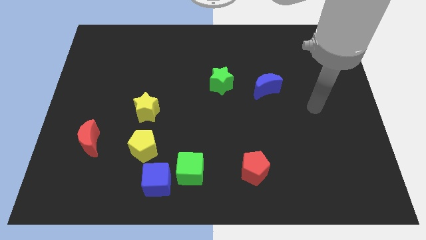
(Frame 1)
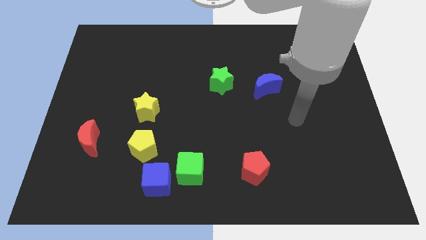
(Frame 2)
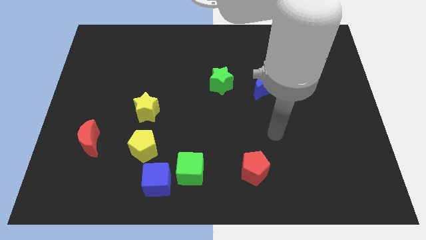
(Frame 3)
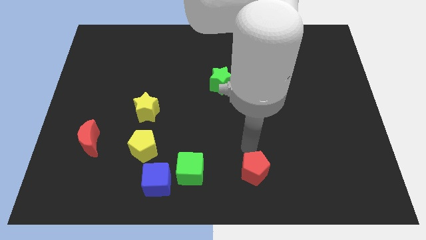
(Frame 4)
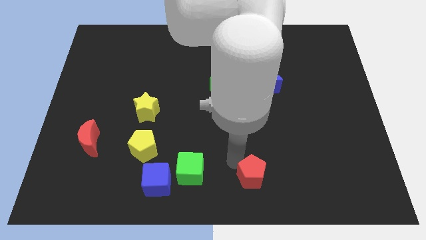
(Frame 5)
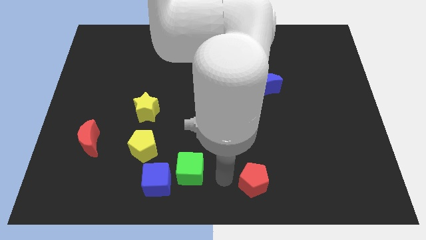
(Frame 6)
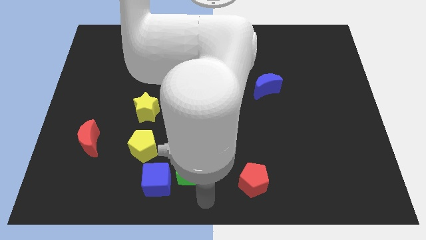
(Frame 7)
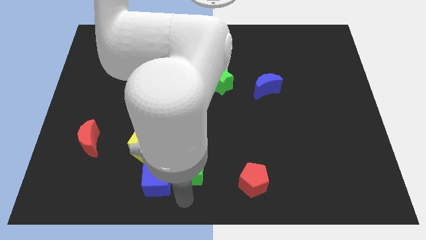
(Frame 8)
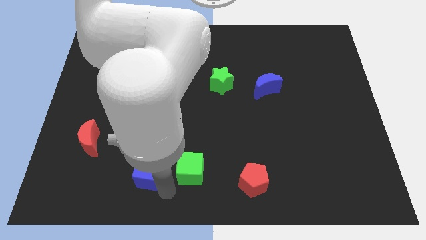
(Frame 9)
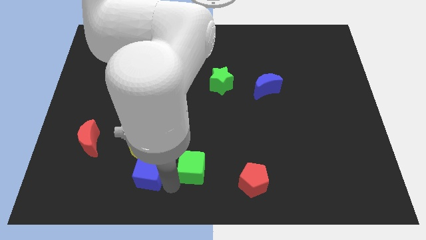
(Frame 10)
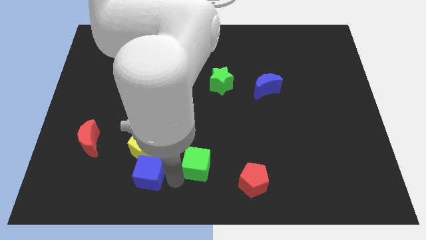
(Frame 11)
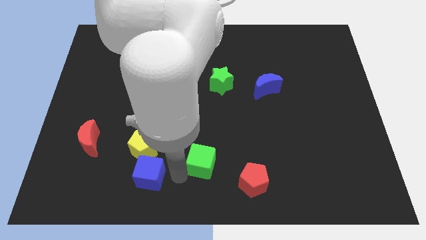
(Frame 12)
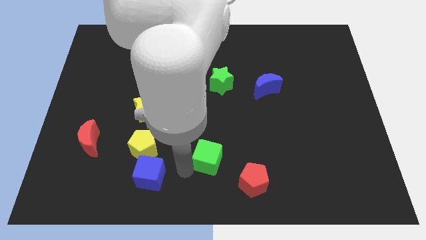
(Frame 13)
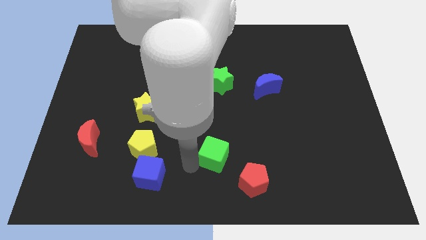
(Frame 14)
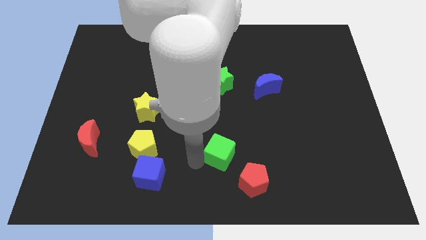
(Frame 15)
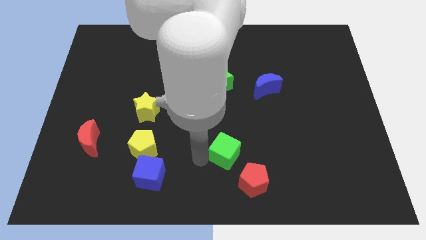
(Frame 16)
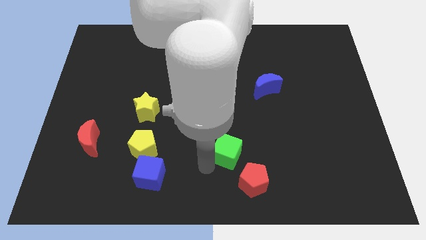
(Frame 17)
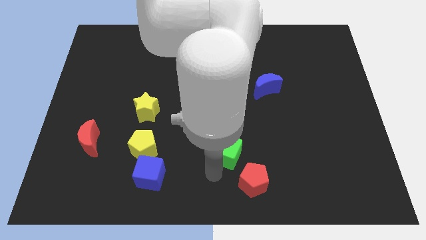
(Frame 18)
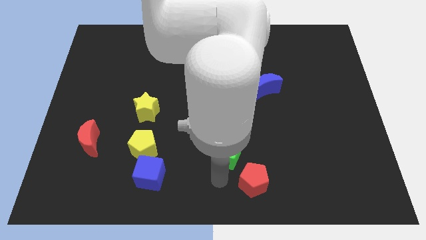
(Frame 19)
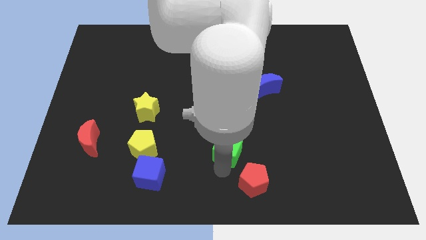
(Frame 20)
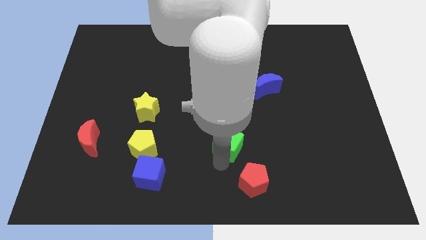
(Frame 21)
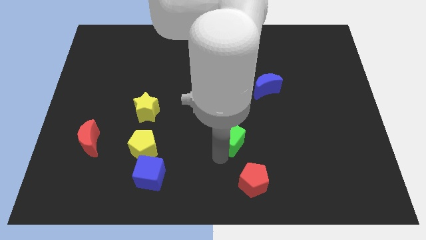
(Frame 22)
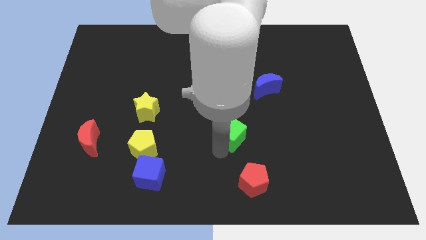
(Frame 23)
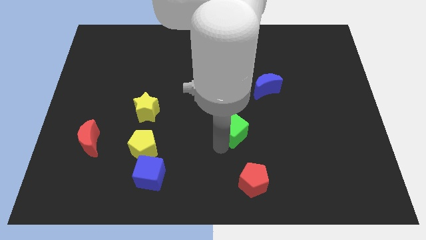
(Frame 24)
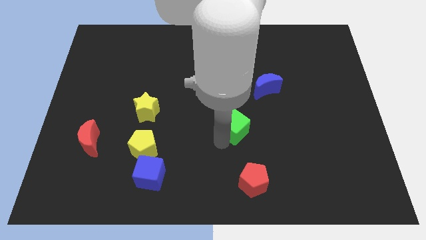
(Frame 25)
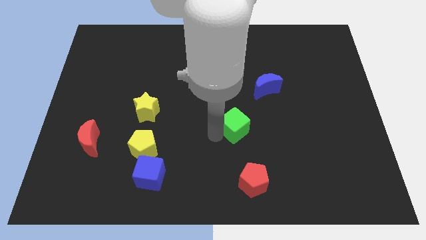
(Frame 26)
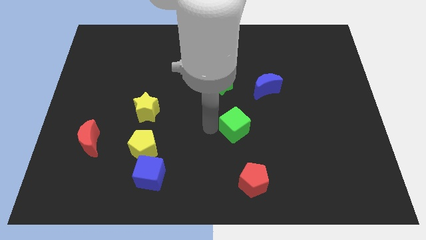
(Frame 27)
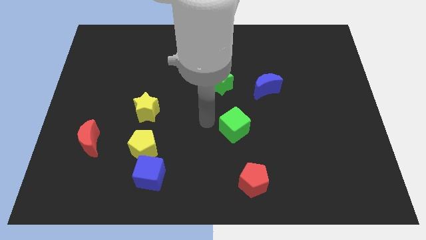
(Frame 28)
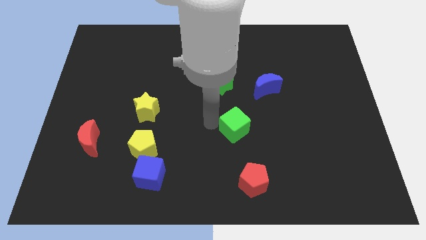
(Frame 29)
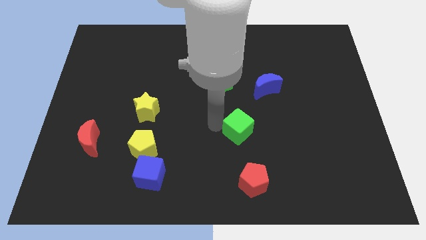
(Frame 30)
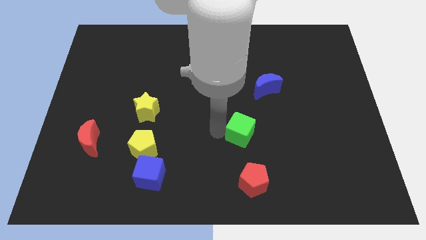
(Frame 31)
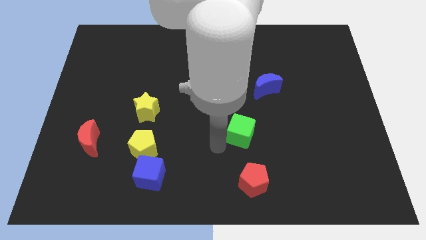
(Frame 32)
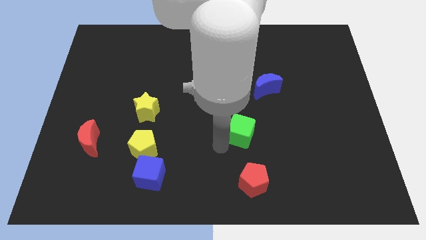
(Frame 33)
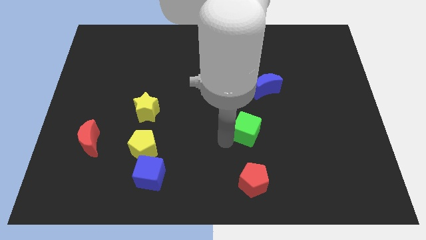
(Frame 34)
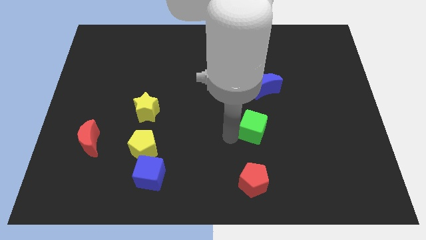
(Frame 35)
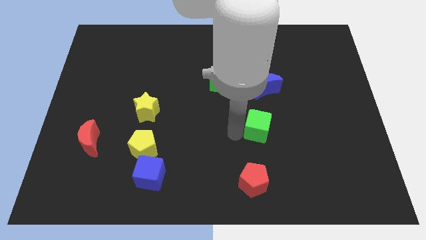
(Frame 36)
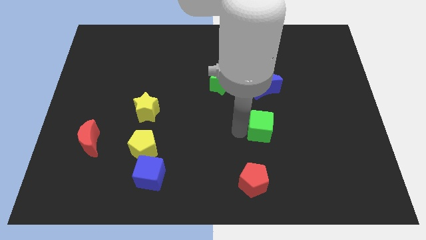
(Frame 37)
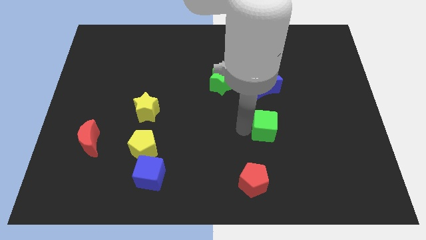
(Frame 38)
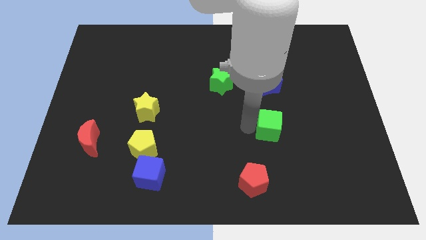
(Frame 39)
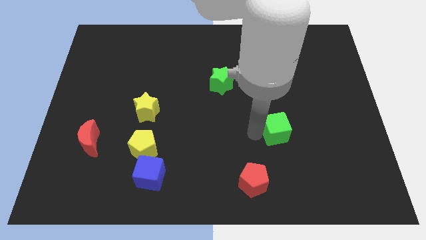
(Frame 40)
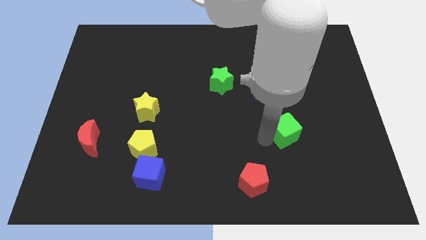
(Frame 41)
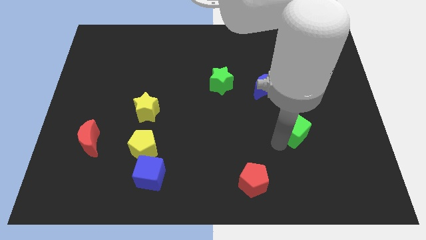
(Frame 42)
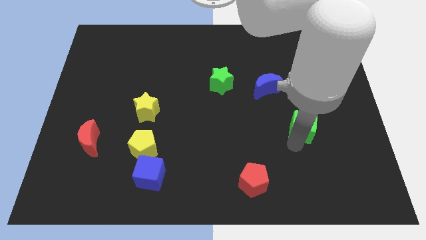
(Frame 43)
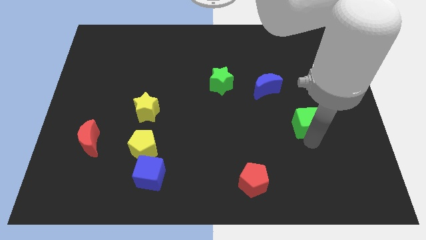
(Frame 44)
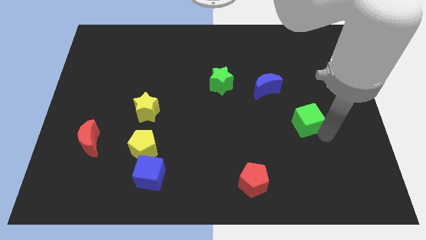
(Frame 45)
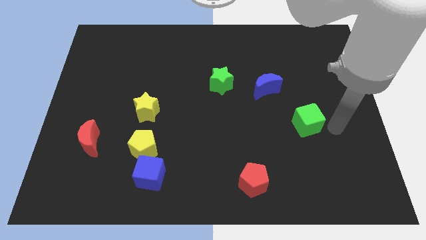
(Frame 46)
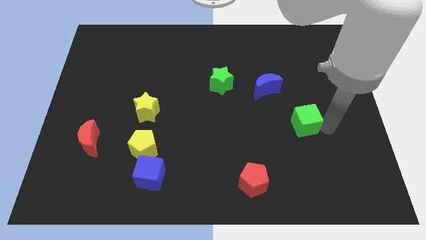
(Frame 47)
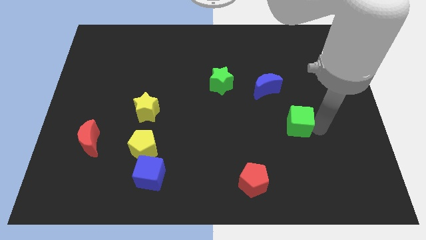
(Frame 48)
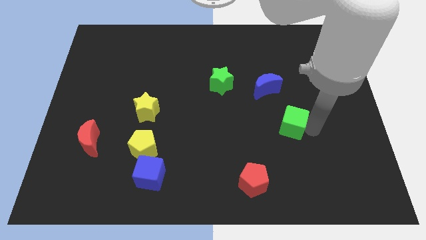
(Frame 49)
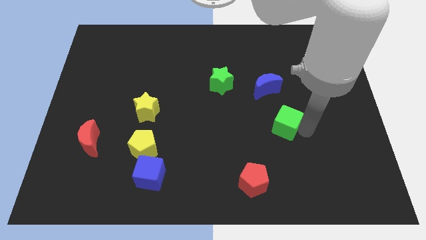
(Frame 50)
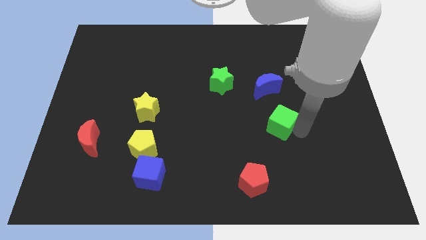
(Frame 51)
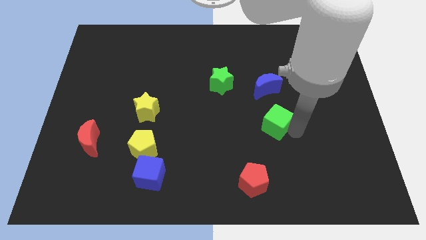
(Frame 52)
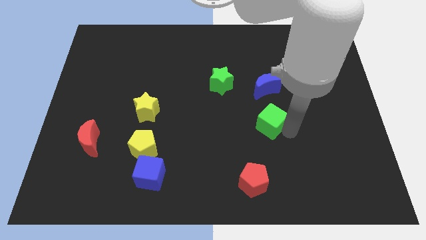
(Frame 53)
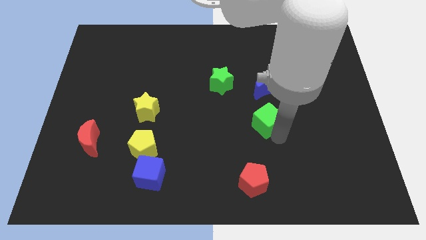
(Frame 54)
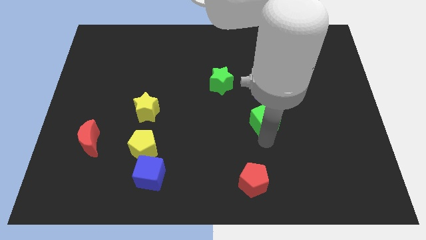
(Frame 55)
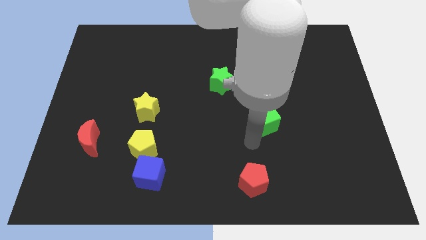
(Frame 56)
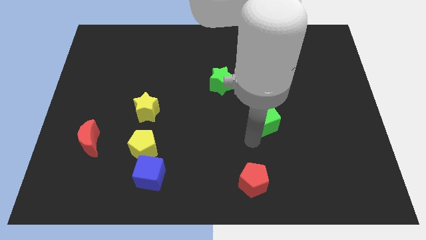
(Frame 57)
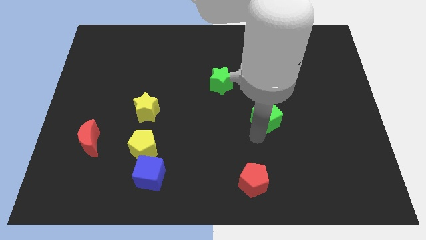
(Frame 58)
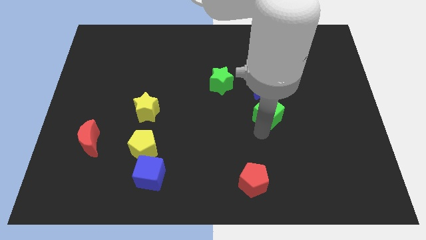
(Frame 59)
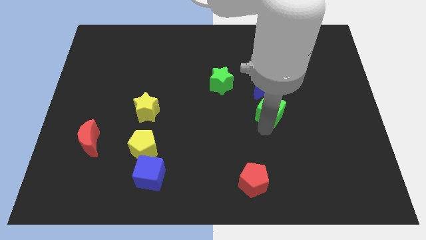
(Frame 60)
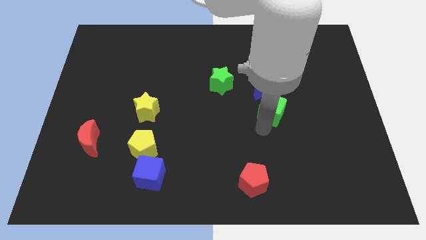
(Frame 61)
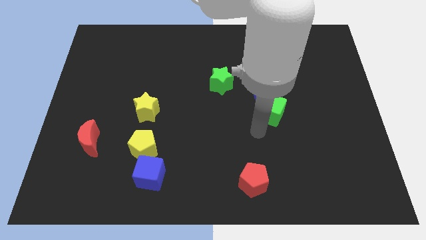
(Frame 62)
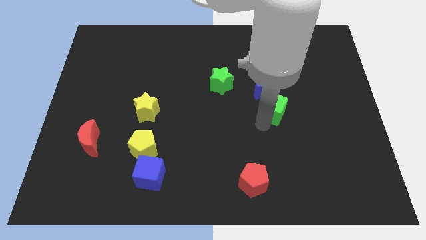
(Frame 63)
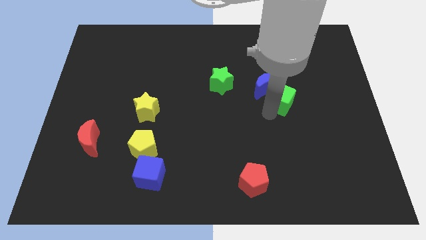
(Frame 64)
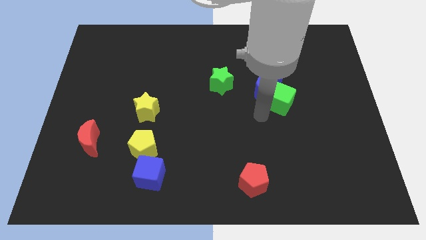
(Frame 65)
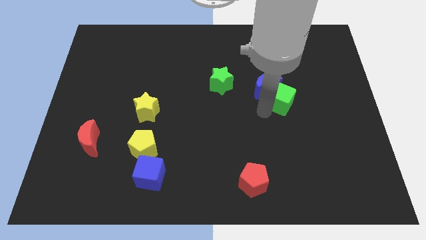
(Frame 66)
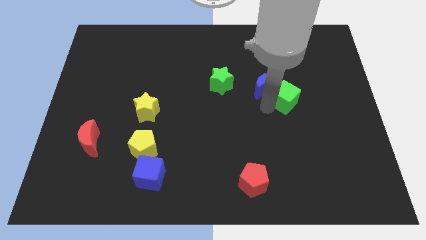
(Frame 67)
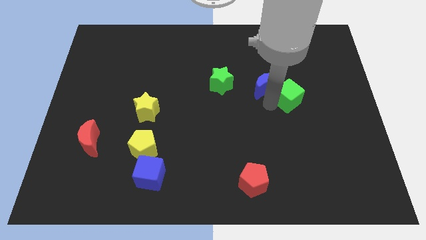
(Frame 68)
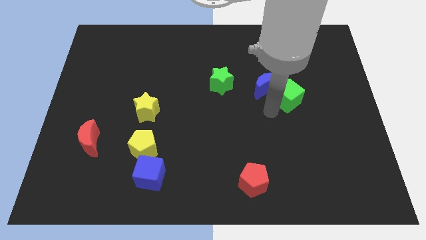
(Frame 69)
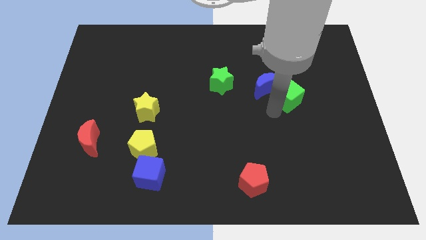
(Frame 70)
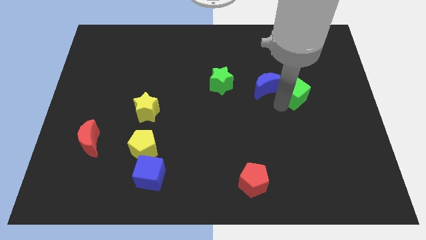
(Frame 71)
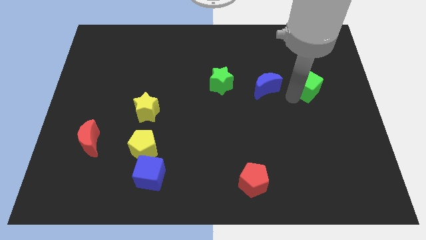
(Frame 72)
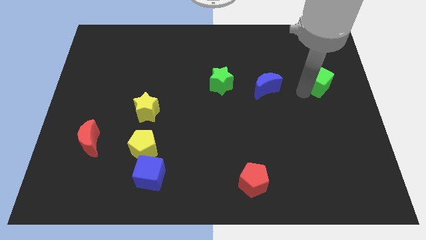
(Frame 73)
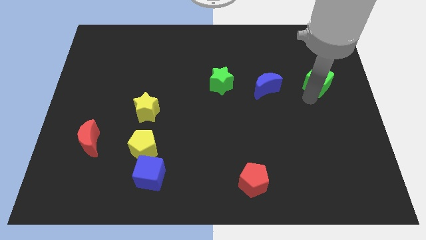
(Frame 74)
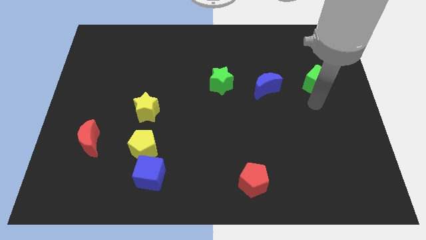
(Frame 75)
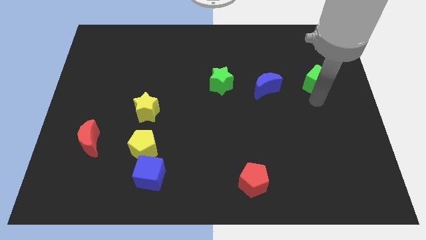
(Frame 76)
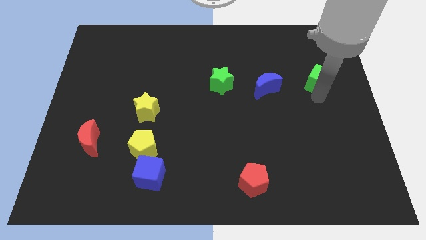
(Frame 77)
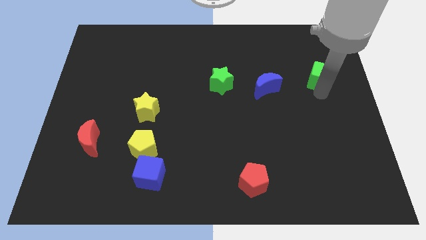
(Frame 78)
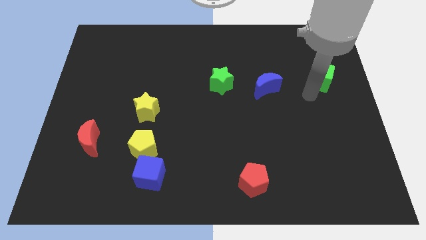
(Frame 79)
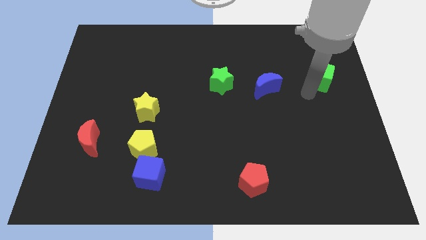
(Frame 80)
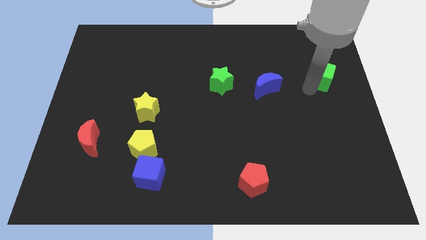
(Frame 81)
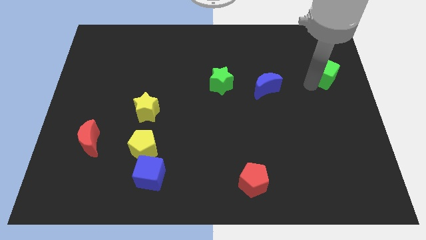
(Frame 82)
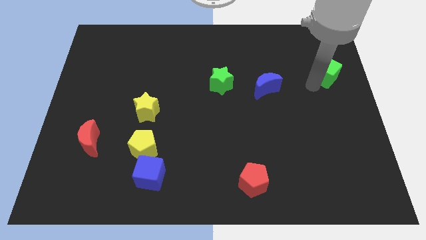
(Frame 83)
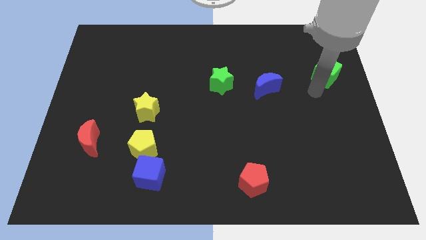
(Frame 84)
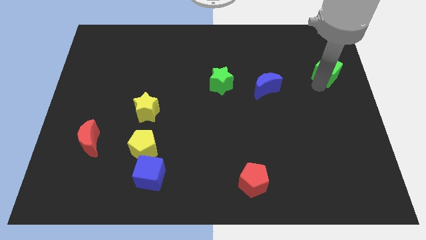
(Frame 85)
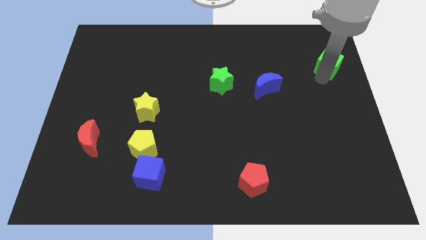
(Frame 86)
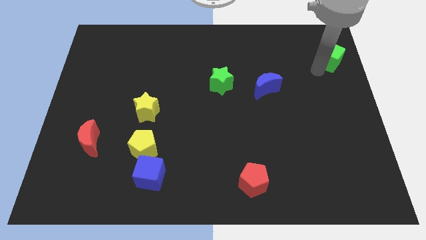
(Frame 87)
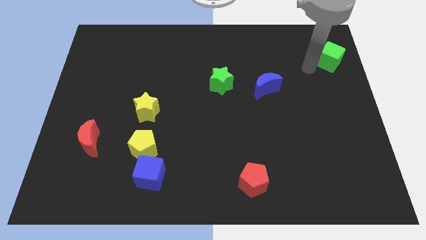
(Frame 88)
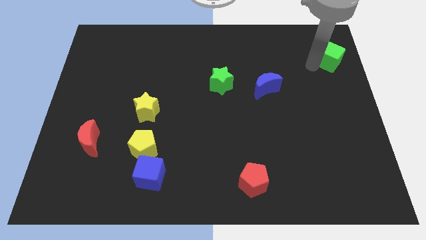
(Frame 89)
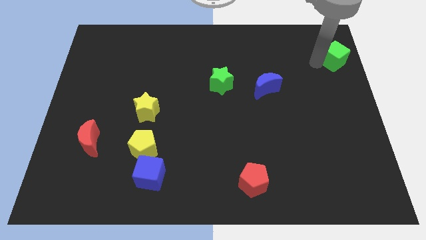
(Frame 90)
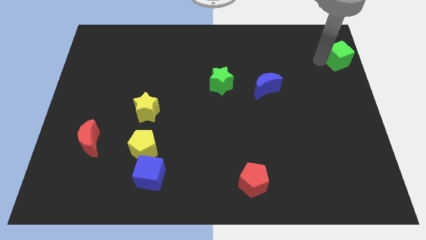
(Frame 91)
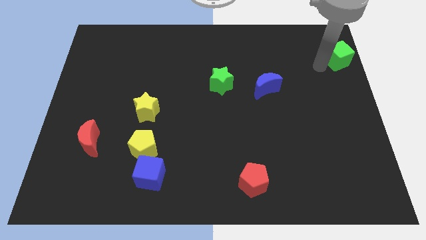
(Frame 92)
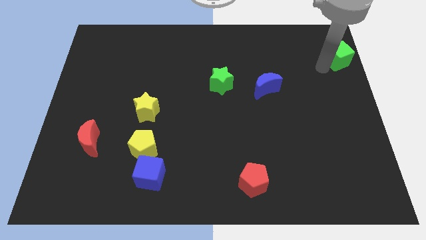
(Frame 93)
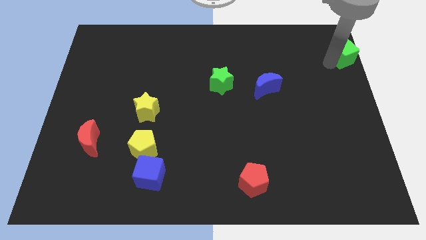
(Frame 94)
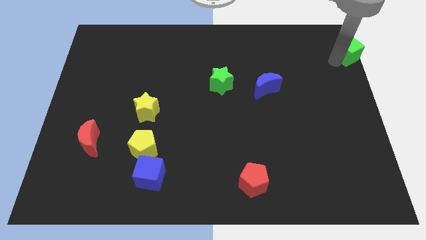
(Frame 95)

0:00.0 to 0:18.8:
slide the green cube to the top right of the board
